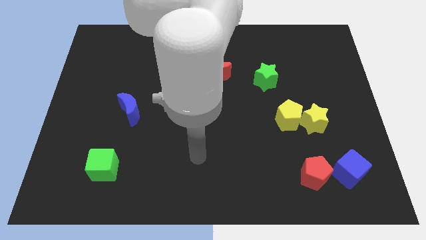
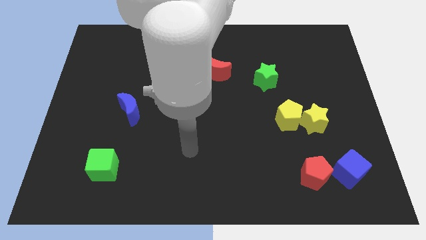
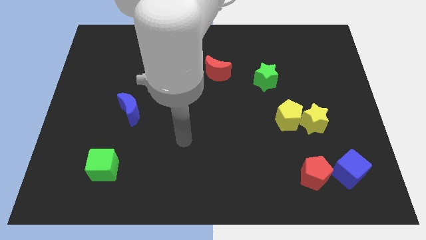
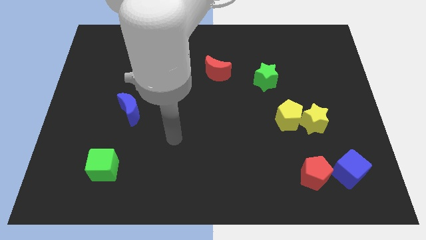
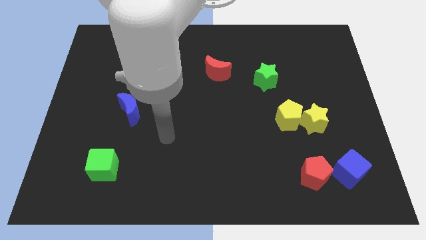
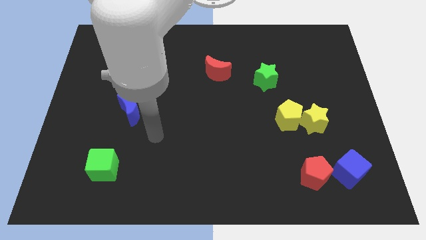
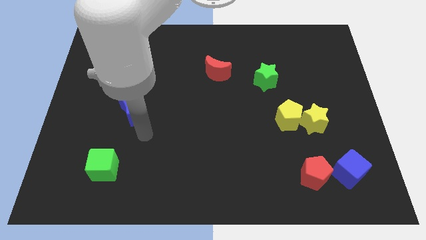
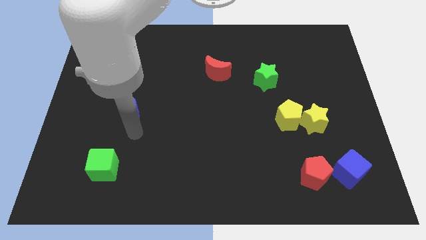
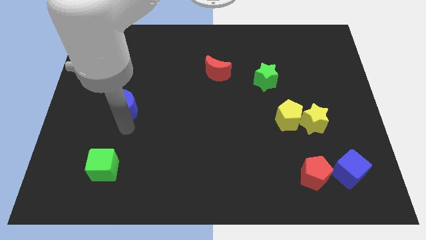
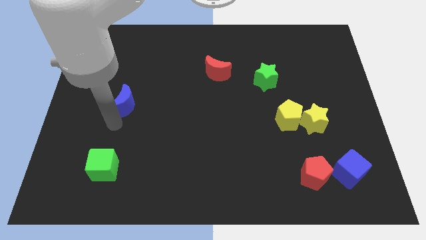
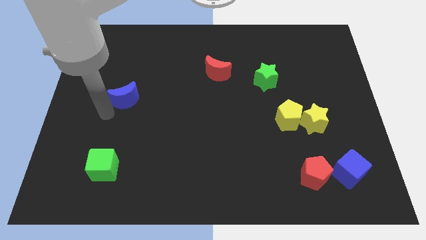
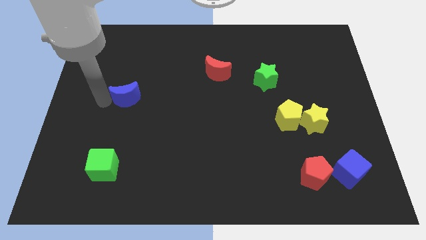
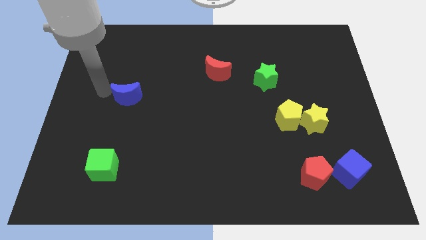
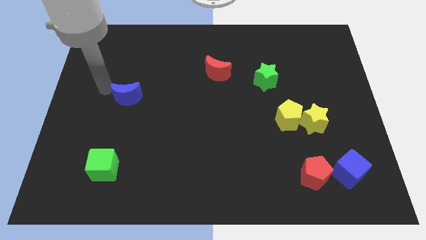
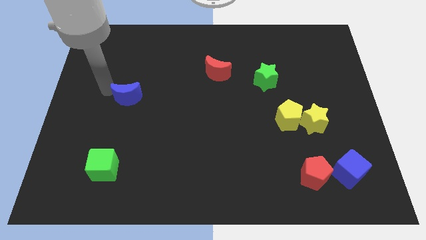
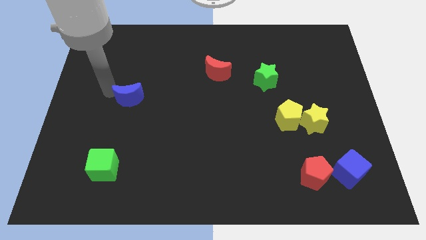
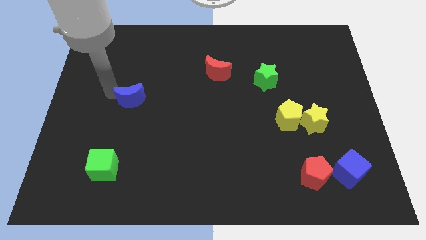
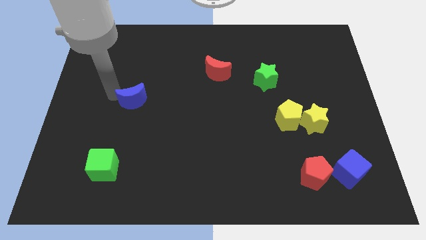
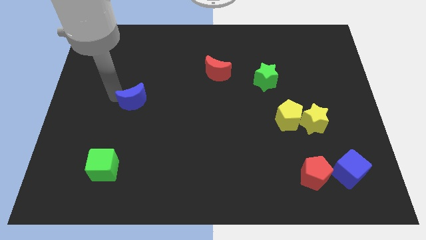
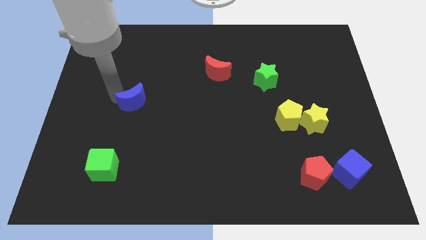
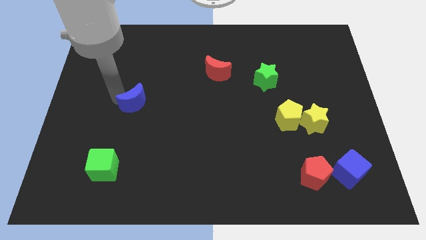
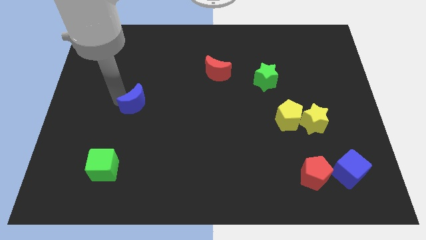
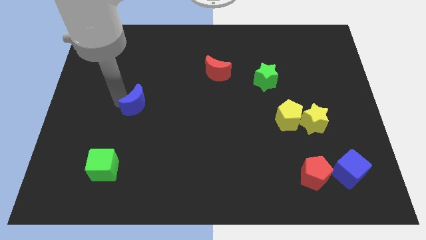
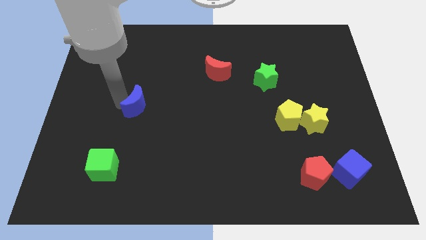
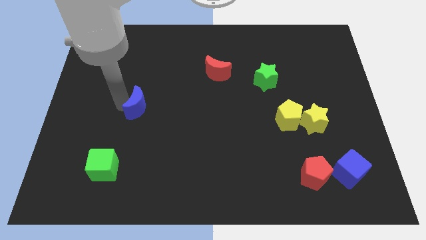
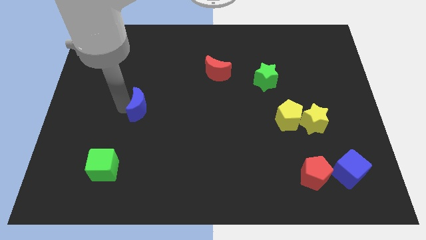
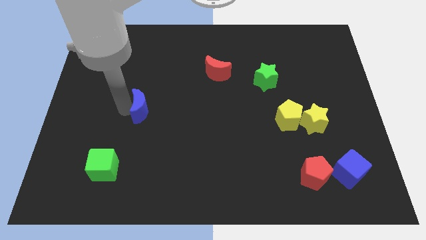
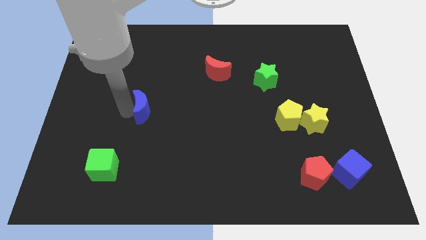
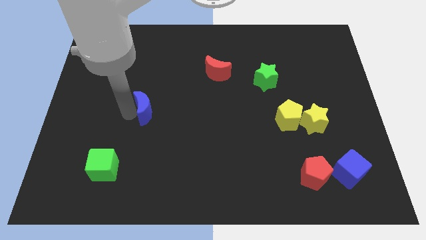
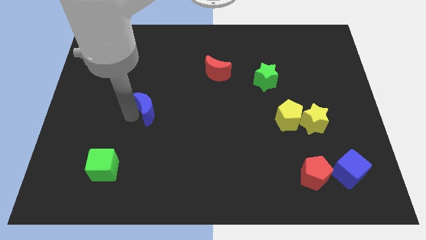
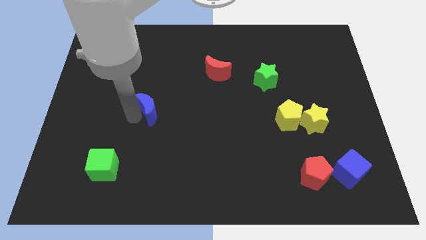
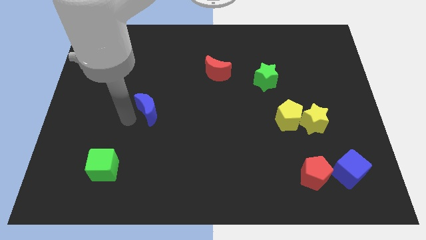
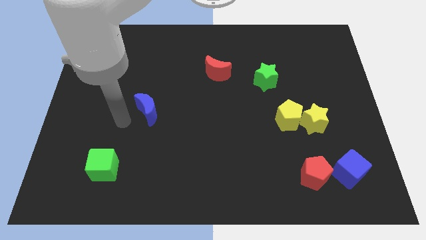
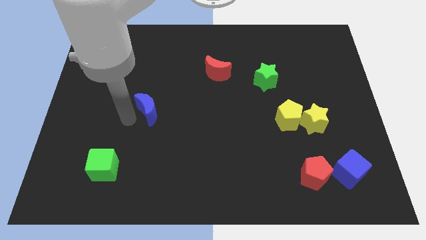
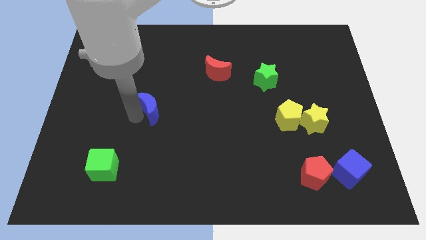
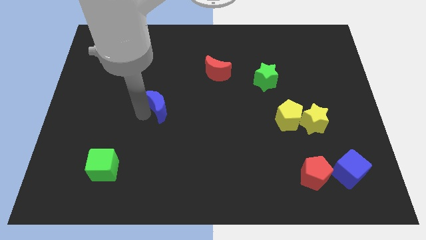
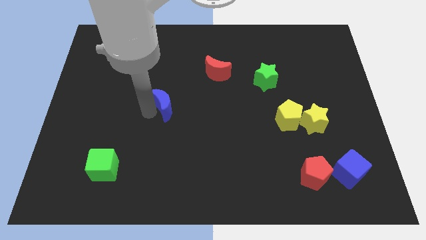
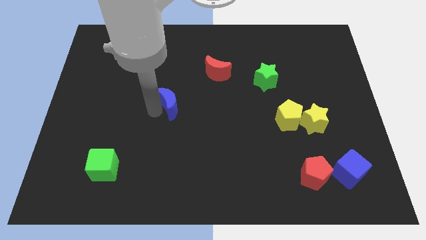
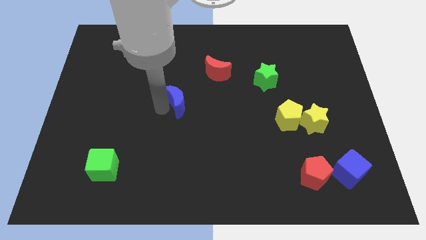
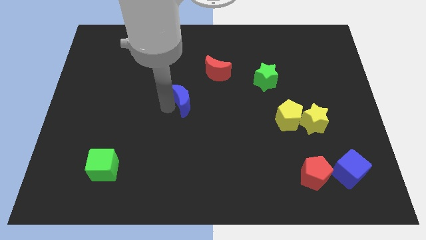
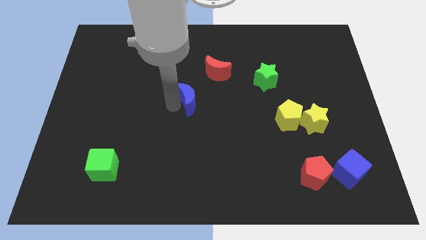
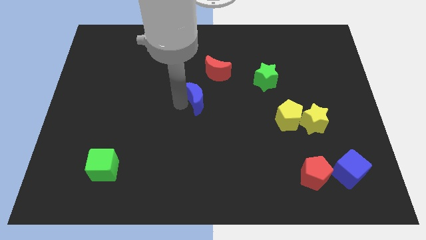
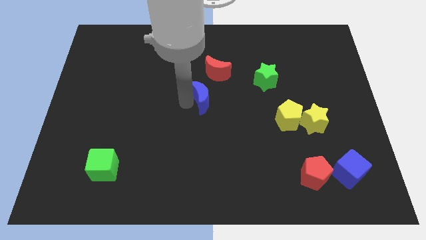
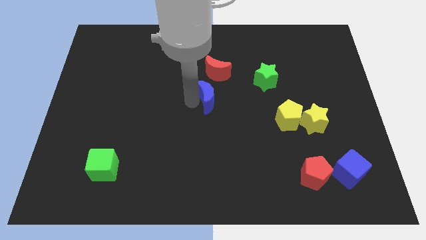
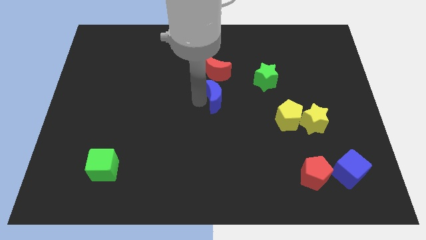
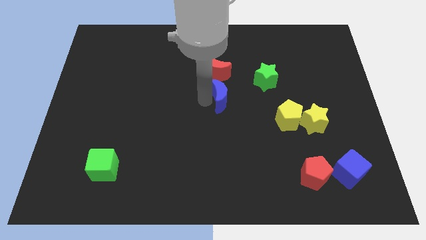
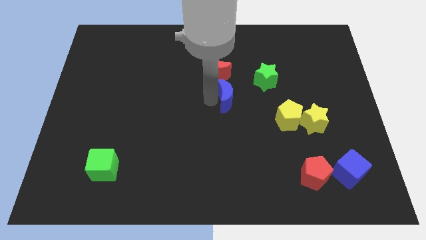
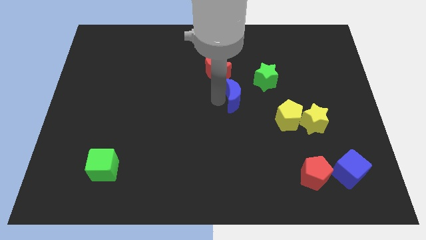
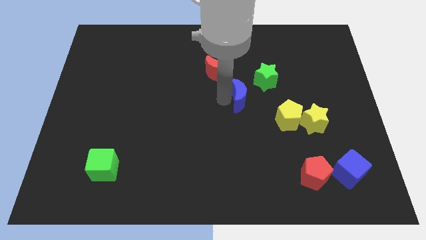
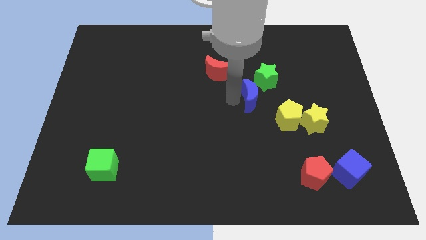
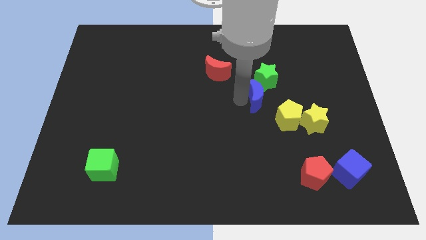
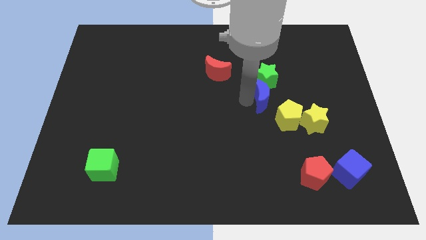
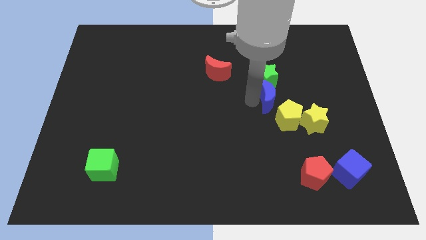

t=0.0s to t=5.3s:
move the blue moon above the yellow pentagon

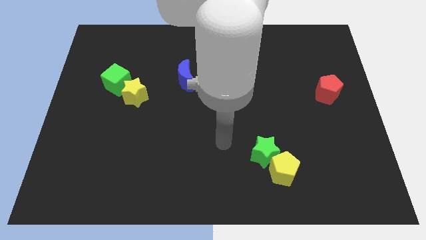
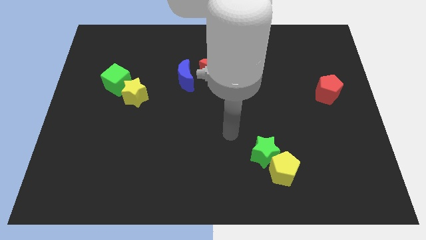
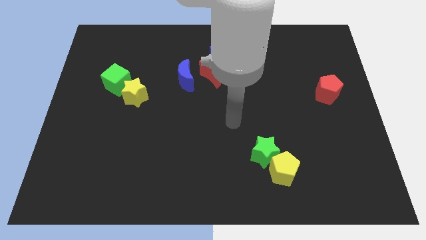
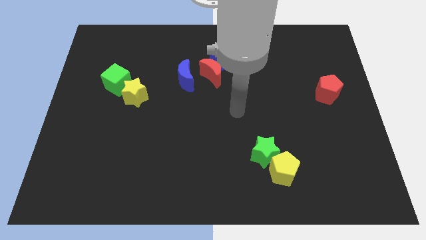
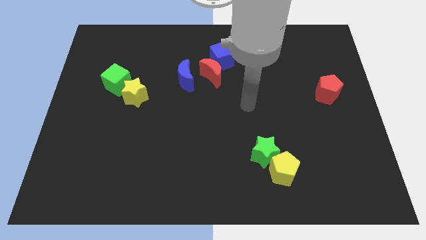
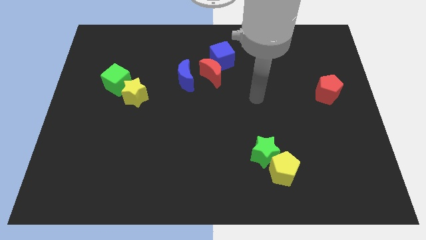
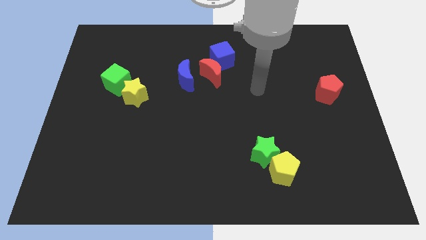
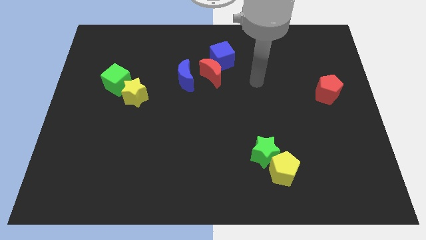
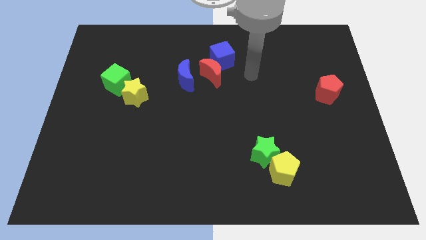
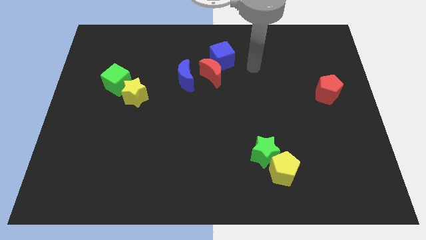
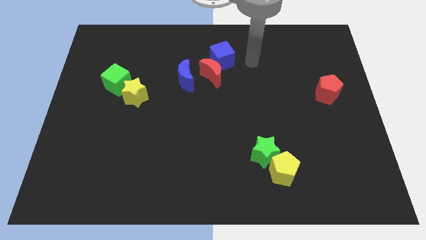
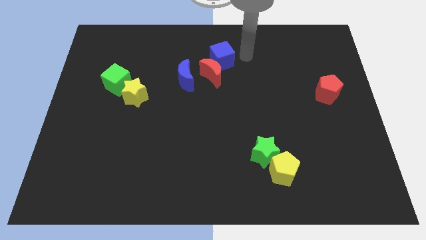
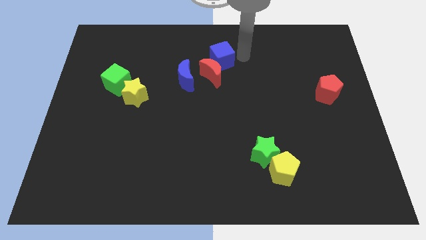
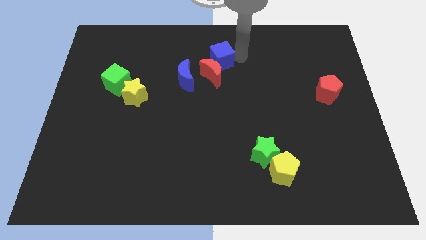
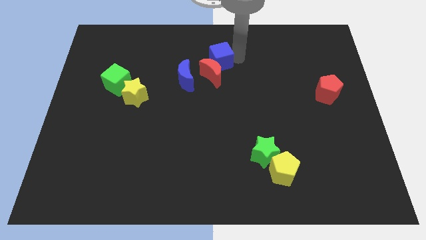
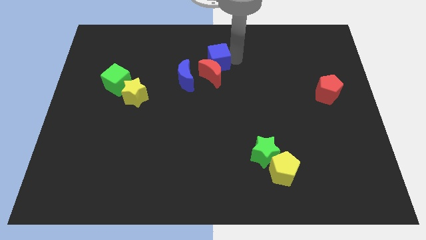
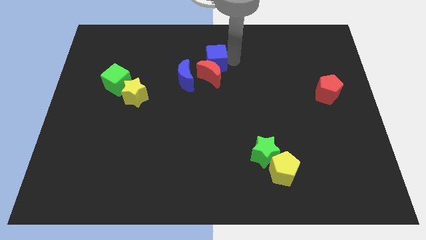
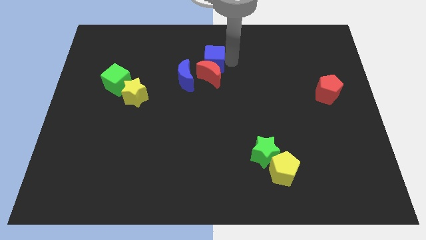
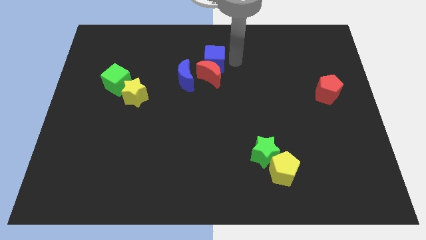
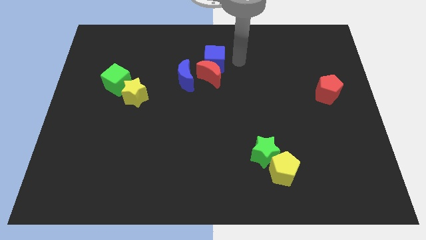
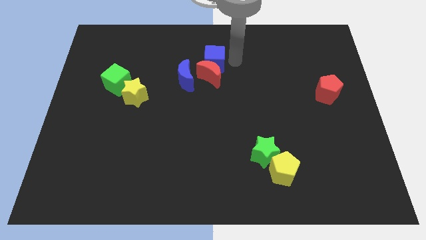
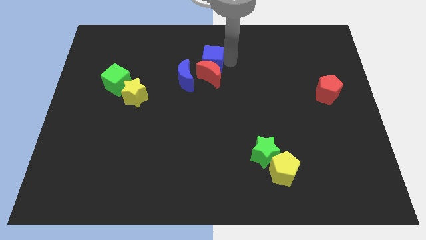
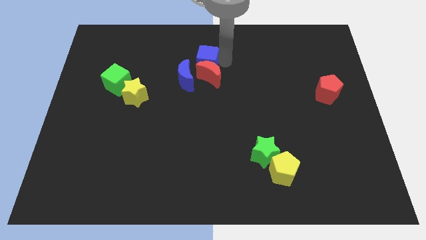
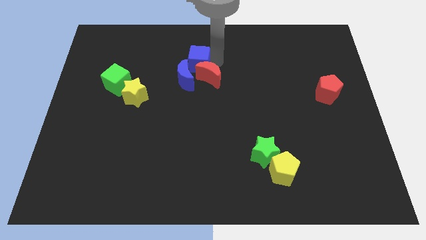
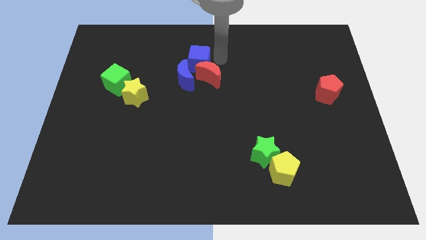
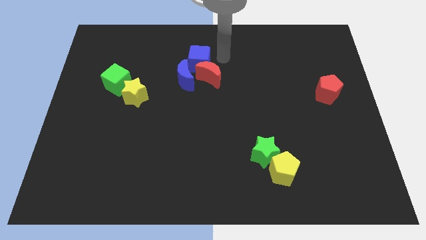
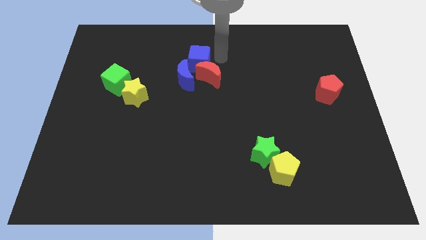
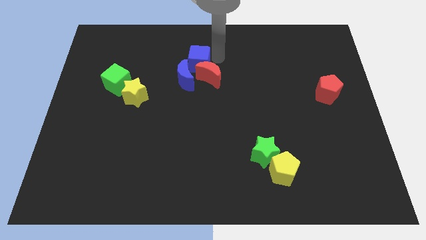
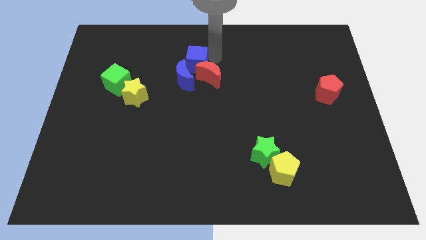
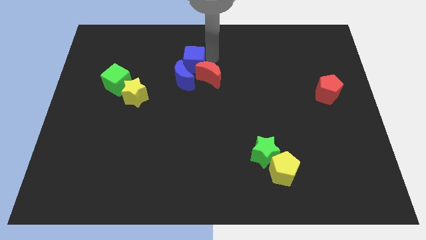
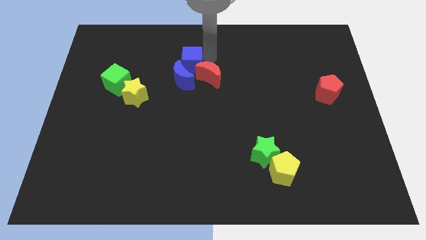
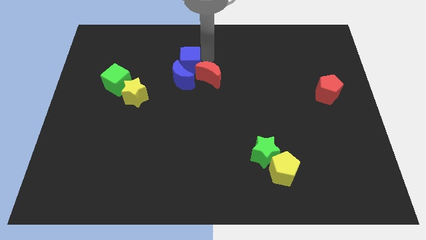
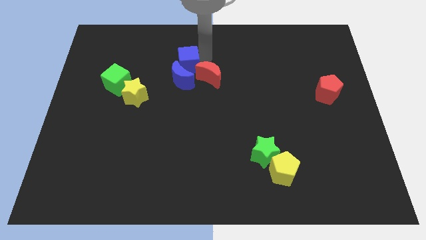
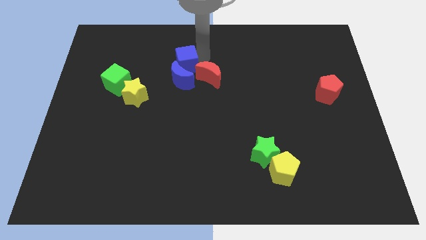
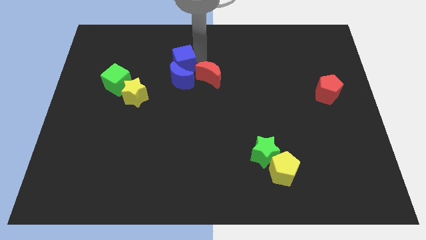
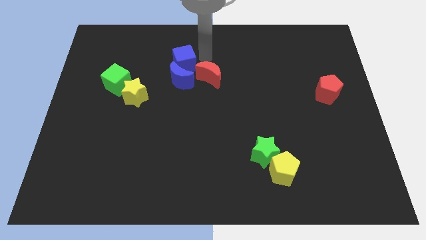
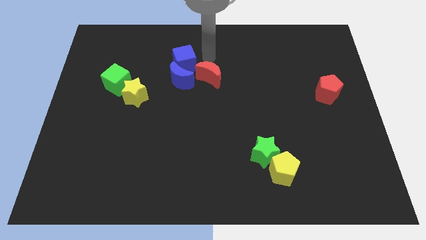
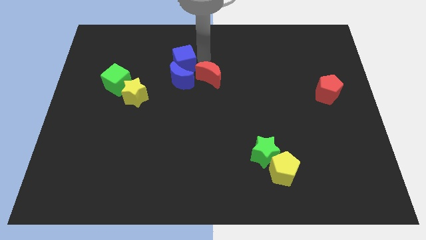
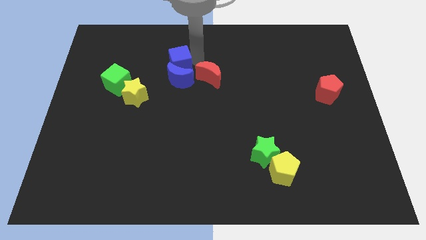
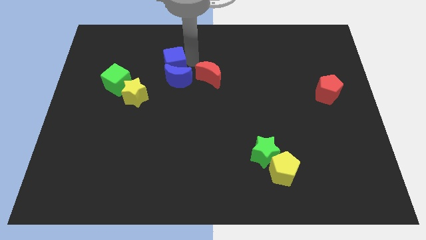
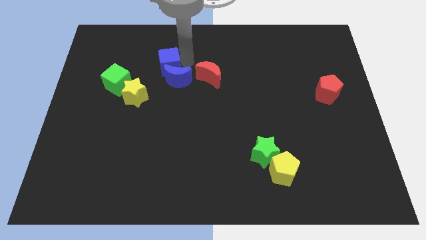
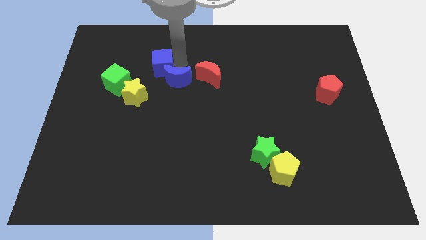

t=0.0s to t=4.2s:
move the blue cube diagonally up and to the right of the green cube
